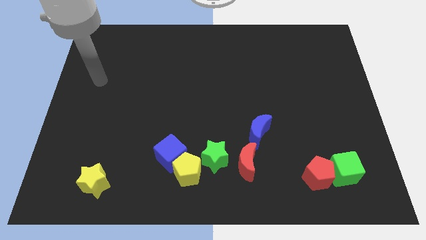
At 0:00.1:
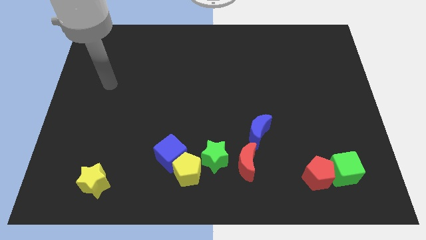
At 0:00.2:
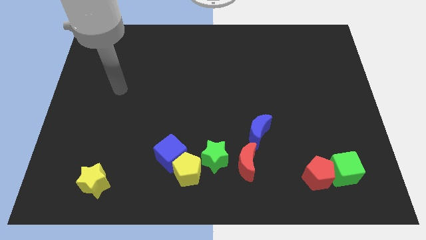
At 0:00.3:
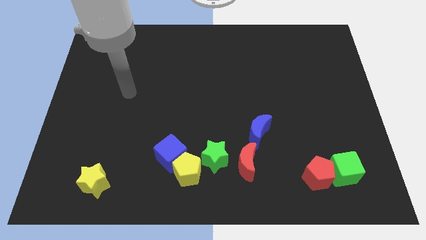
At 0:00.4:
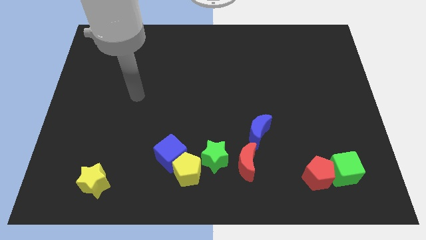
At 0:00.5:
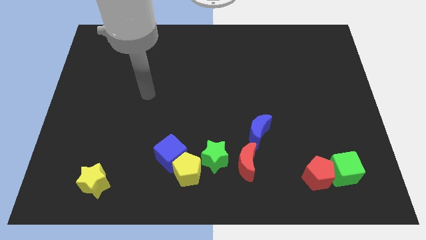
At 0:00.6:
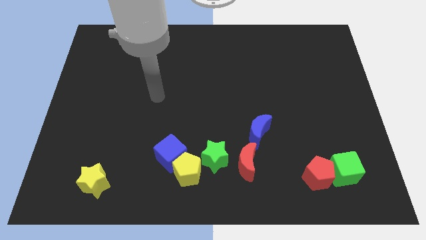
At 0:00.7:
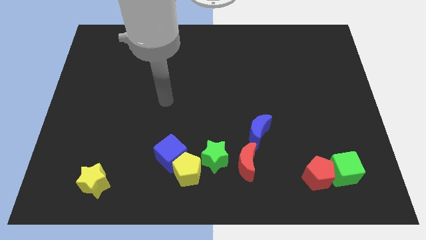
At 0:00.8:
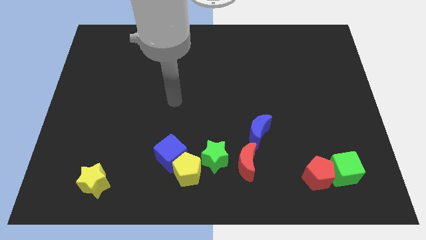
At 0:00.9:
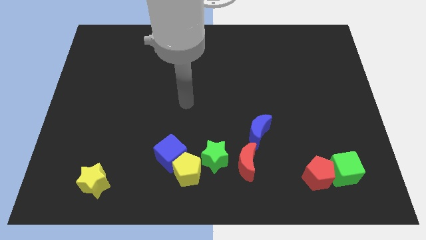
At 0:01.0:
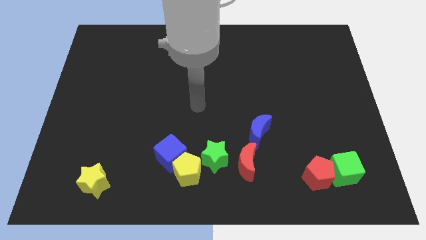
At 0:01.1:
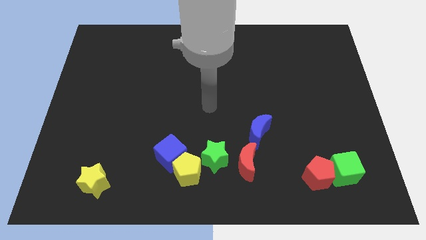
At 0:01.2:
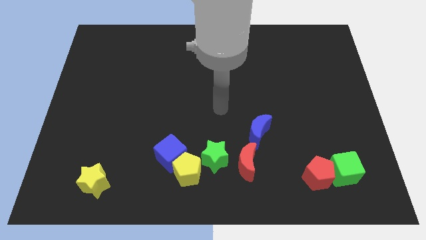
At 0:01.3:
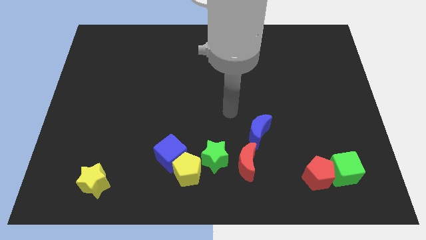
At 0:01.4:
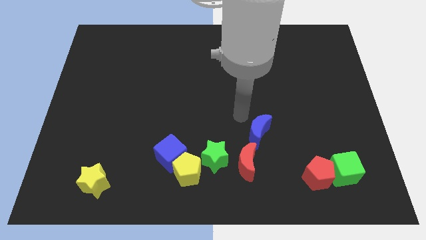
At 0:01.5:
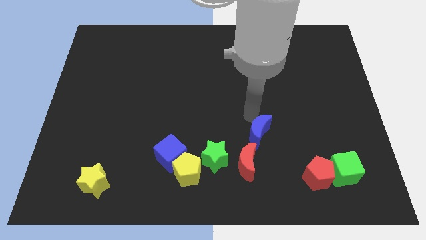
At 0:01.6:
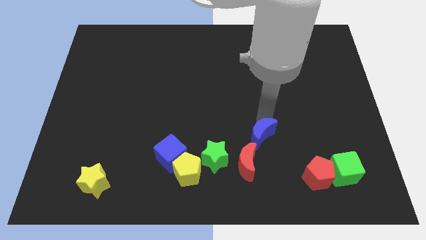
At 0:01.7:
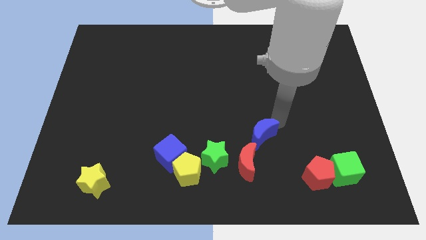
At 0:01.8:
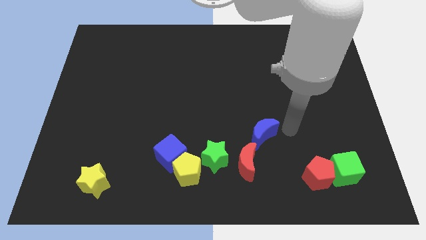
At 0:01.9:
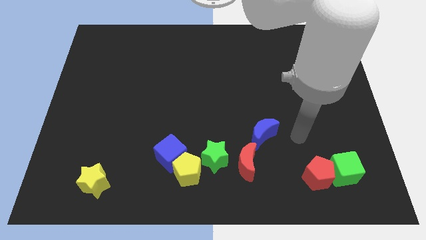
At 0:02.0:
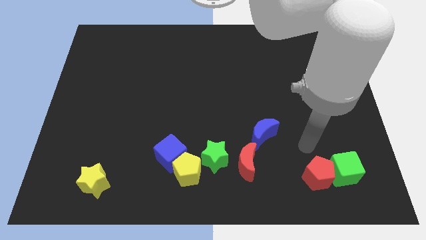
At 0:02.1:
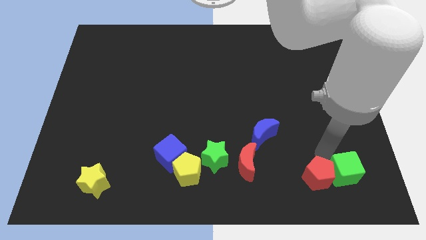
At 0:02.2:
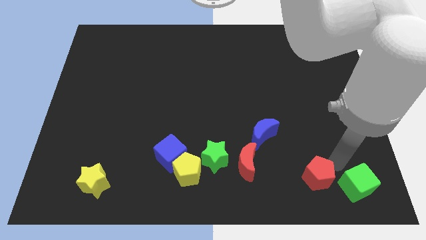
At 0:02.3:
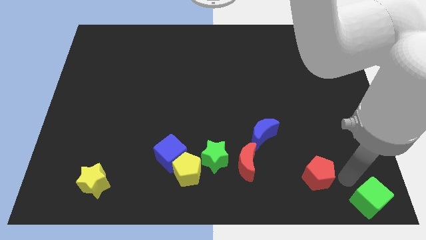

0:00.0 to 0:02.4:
pull the red pentagon apart from the green cube

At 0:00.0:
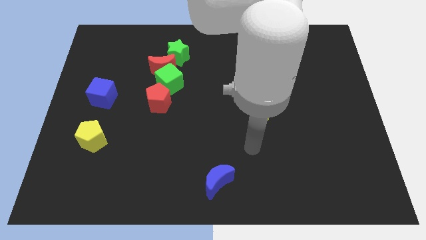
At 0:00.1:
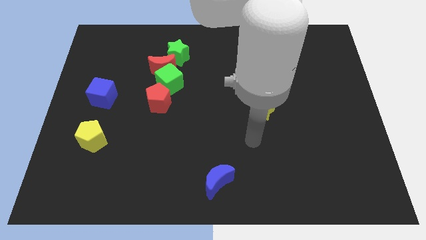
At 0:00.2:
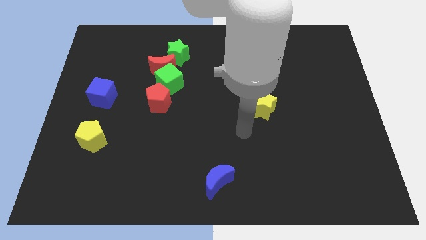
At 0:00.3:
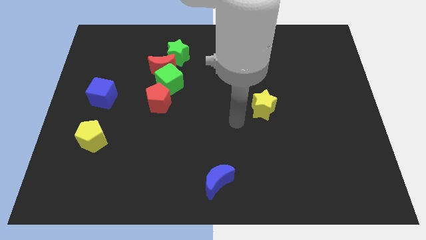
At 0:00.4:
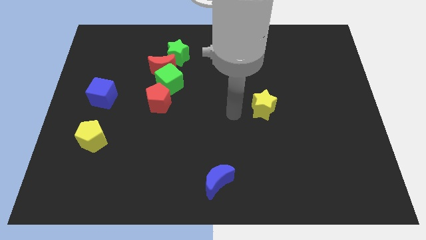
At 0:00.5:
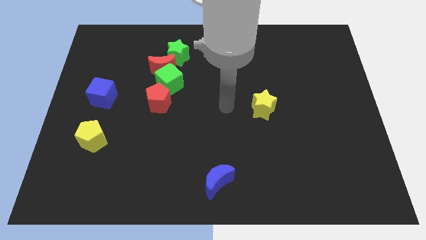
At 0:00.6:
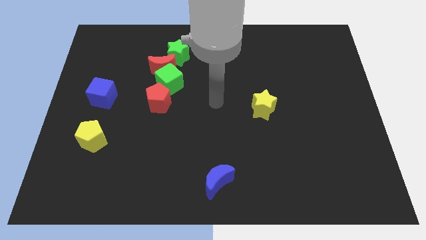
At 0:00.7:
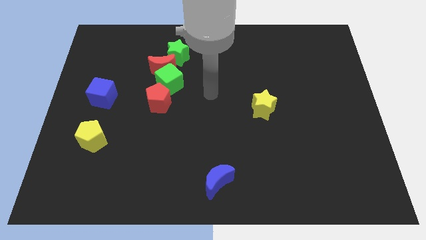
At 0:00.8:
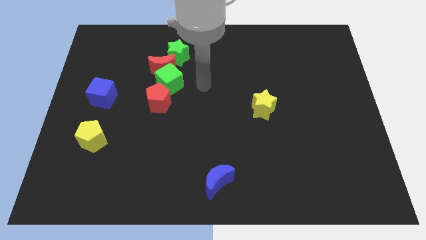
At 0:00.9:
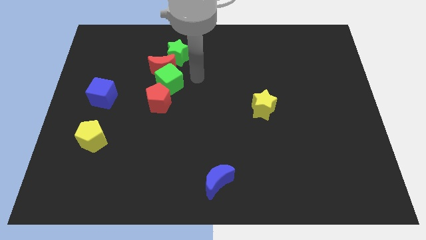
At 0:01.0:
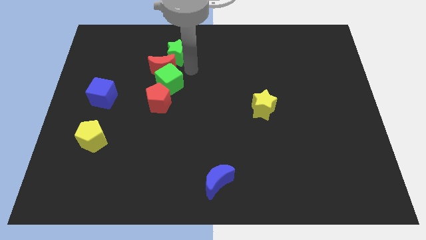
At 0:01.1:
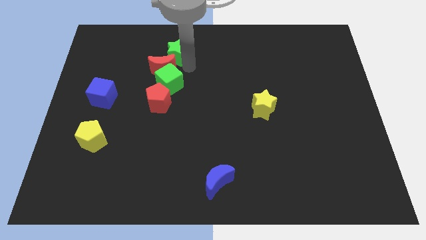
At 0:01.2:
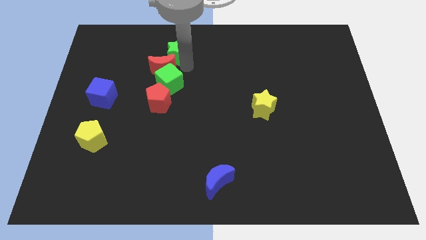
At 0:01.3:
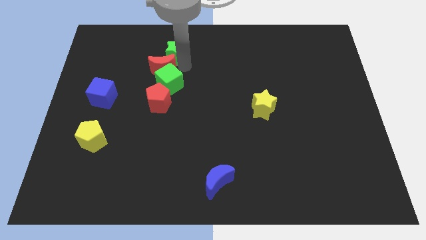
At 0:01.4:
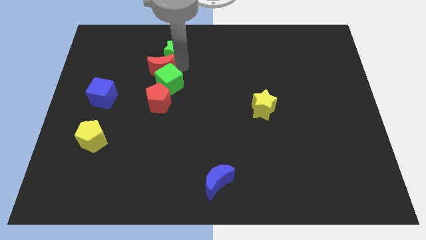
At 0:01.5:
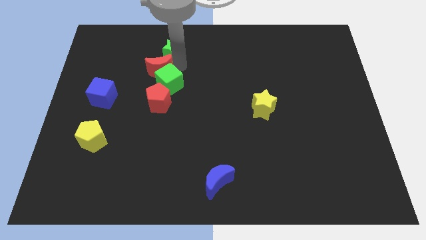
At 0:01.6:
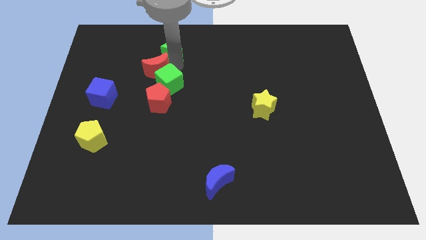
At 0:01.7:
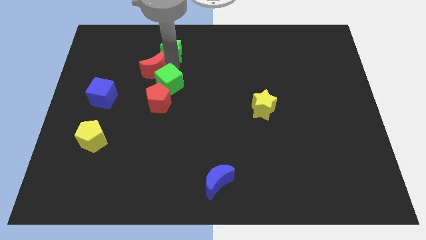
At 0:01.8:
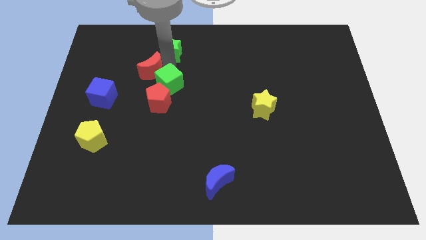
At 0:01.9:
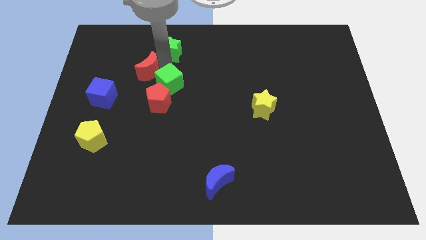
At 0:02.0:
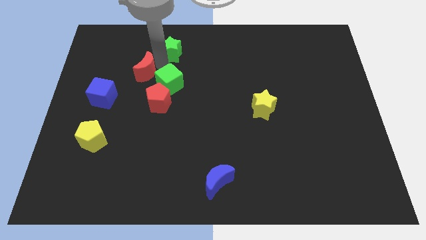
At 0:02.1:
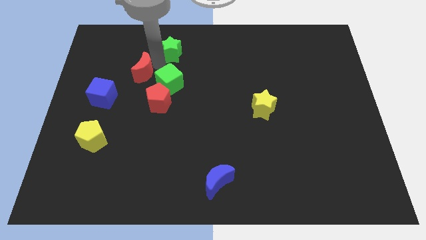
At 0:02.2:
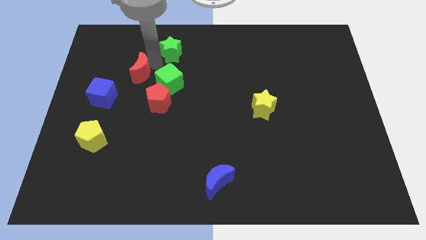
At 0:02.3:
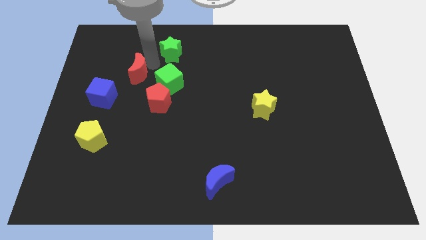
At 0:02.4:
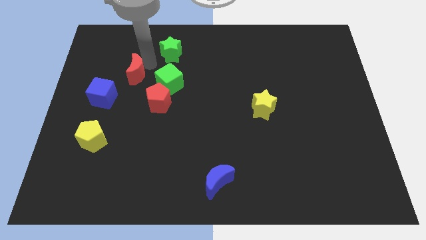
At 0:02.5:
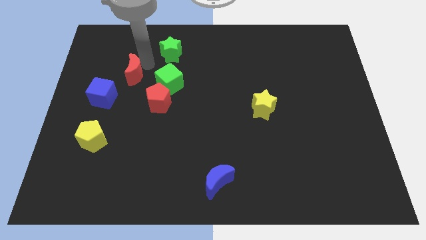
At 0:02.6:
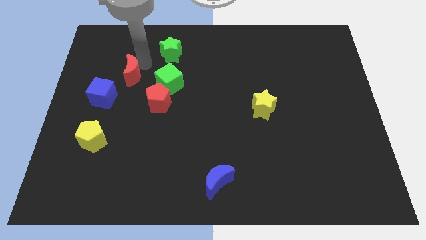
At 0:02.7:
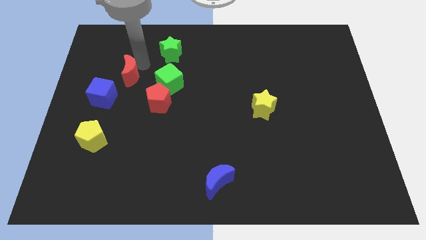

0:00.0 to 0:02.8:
move the red moon away from the green cube and green star

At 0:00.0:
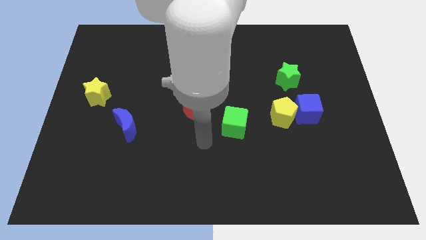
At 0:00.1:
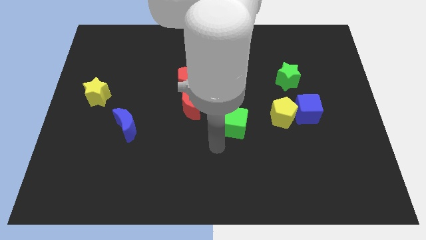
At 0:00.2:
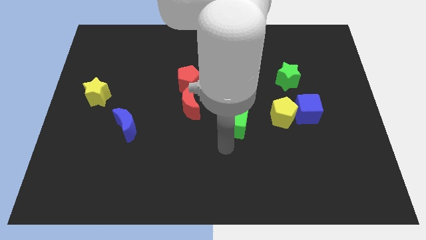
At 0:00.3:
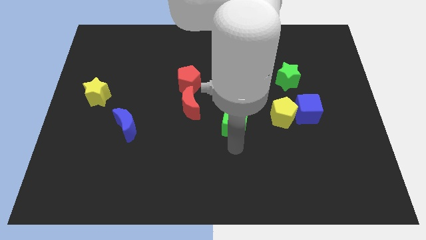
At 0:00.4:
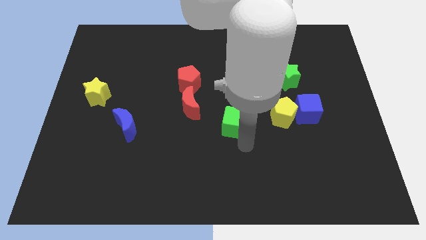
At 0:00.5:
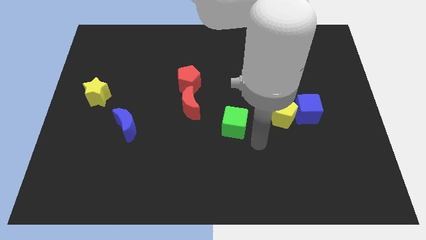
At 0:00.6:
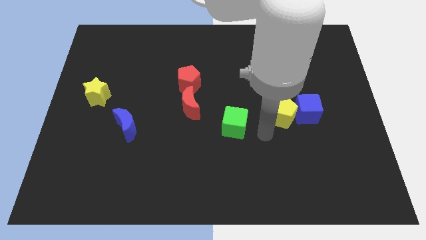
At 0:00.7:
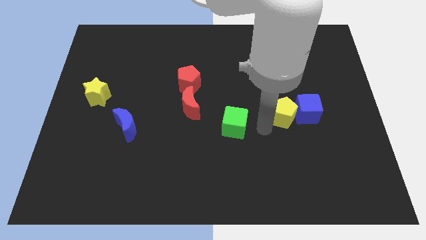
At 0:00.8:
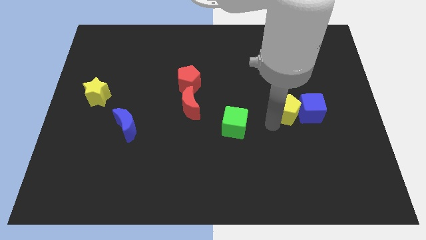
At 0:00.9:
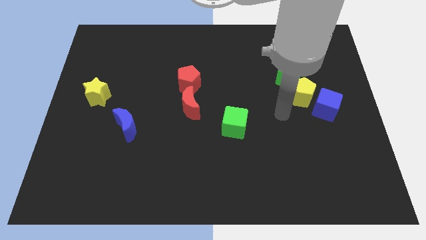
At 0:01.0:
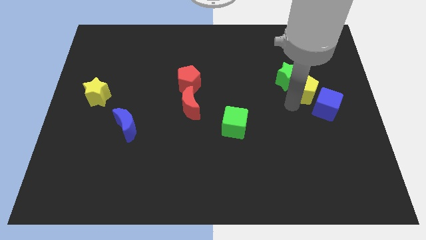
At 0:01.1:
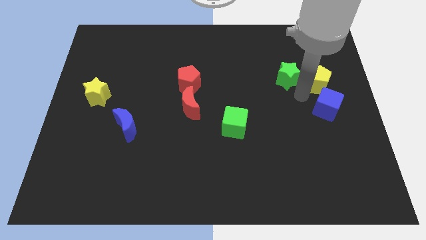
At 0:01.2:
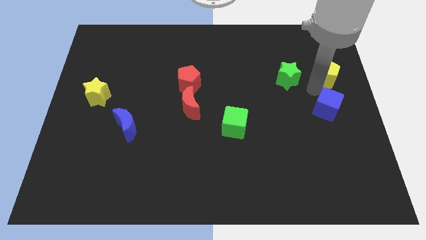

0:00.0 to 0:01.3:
move the blue cube away from the yellow pentagon

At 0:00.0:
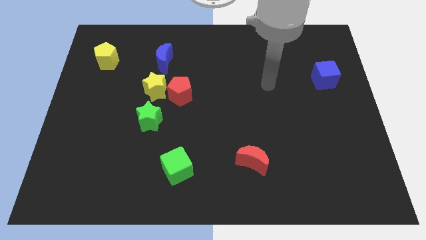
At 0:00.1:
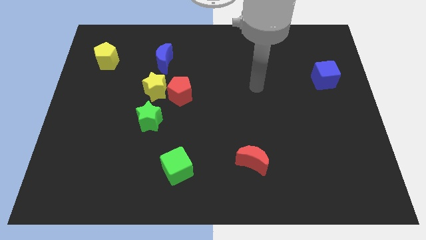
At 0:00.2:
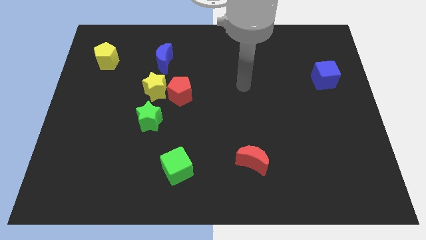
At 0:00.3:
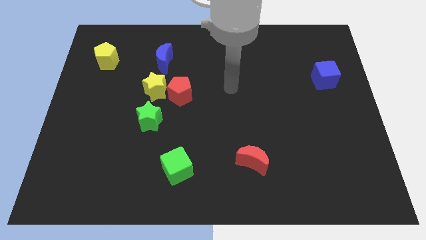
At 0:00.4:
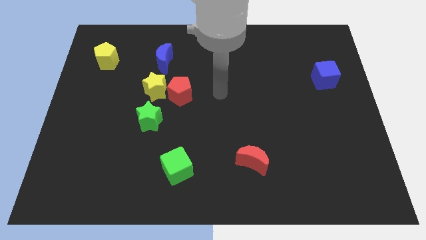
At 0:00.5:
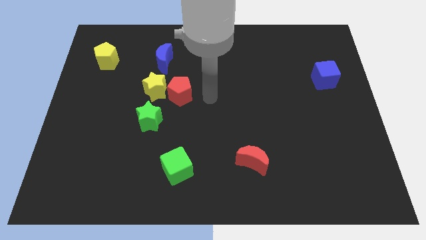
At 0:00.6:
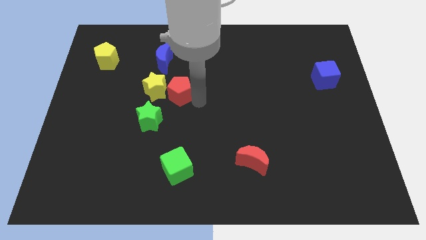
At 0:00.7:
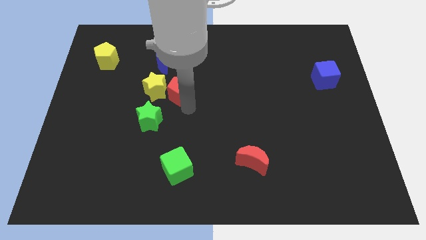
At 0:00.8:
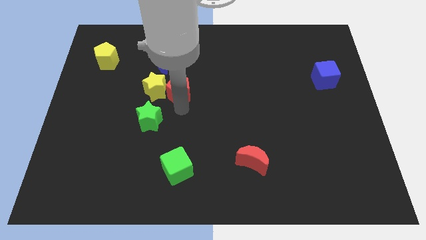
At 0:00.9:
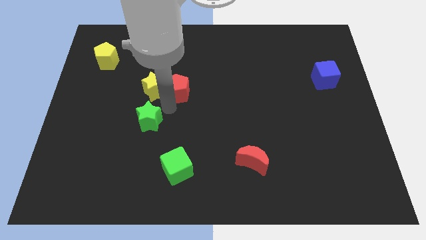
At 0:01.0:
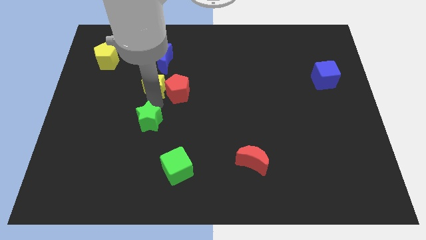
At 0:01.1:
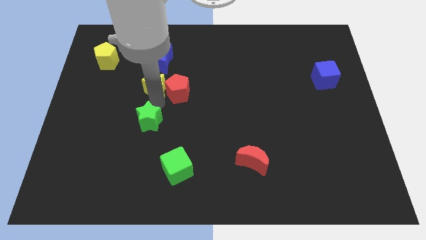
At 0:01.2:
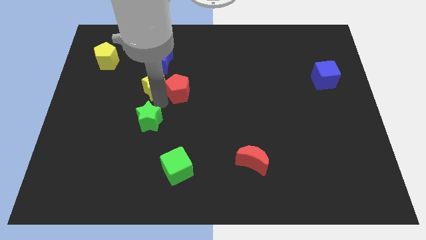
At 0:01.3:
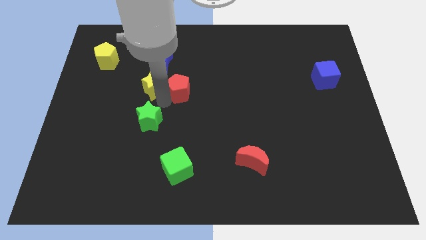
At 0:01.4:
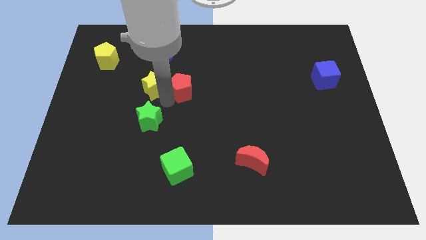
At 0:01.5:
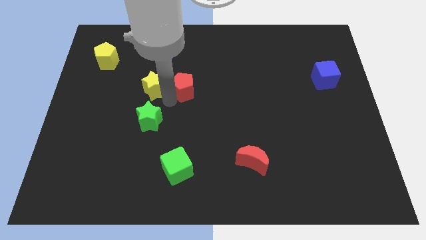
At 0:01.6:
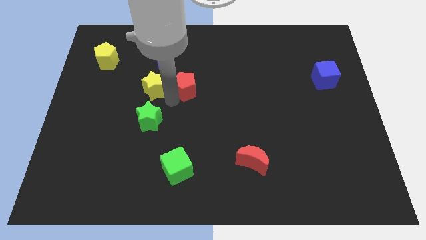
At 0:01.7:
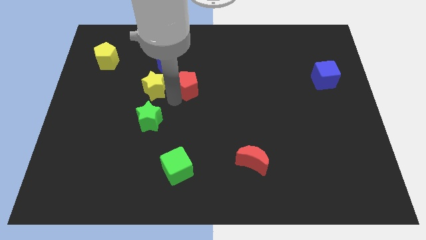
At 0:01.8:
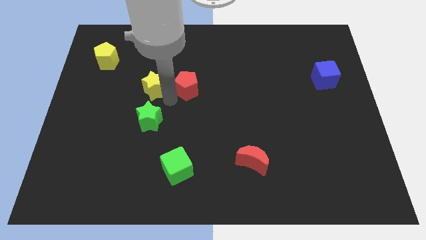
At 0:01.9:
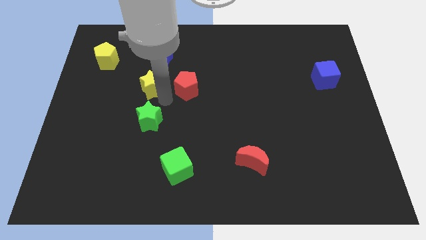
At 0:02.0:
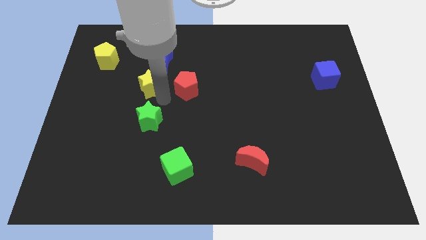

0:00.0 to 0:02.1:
move the red pentagon away from the yellow star and green star

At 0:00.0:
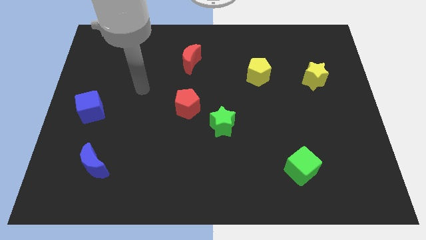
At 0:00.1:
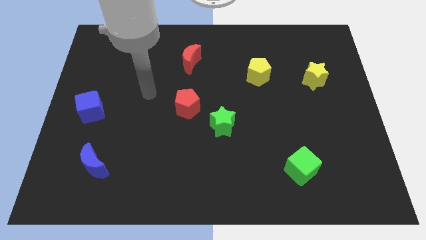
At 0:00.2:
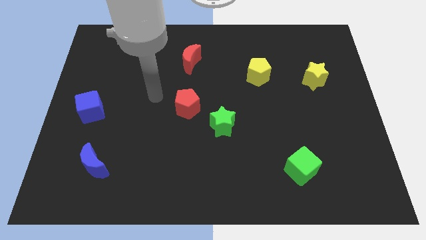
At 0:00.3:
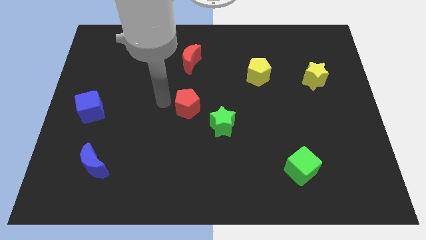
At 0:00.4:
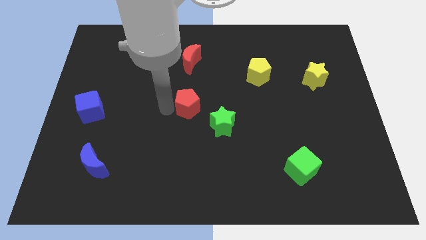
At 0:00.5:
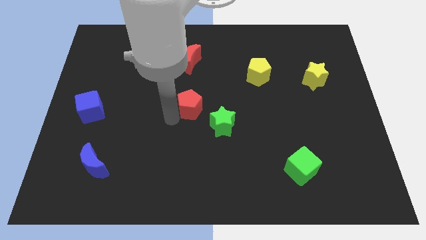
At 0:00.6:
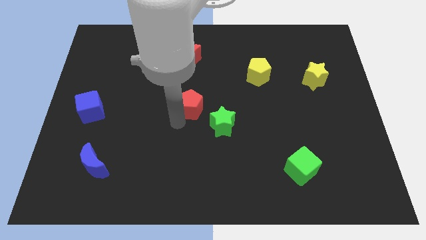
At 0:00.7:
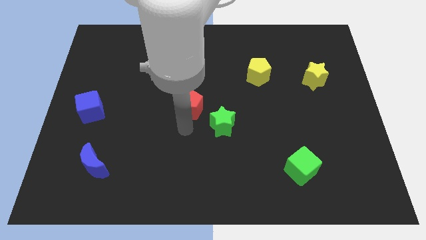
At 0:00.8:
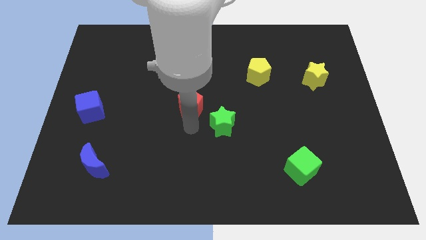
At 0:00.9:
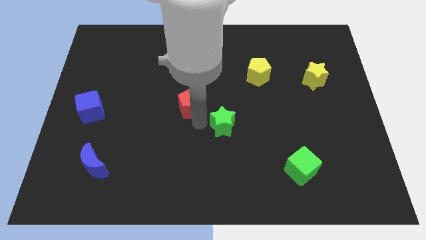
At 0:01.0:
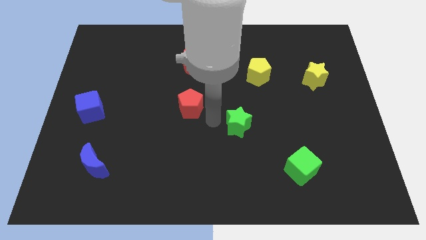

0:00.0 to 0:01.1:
pull the red pentagon apart from the green star
